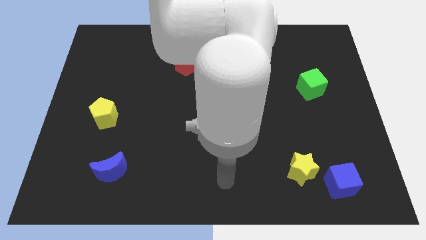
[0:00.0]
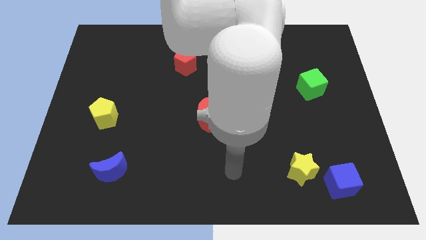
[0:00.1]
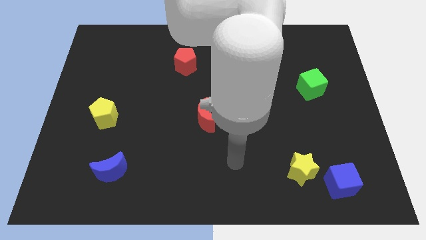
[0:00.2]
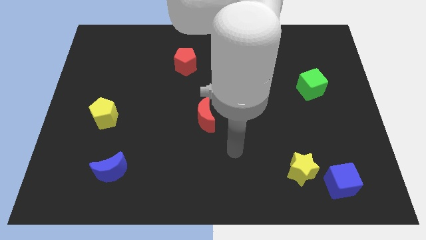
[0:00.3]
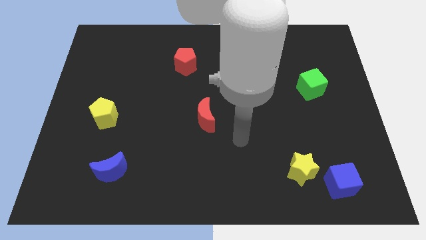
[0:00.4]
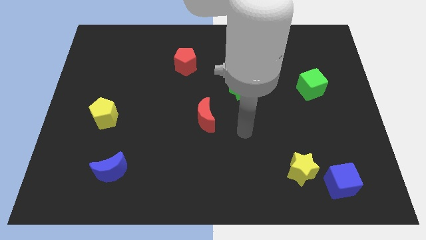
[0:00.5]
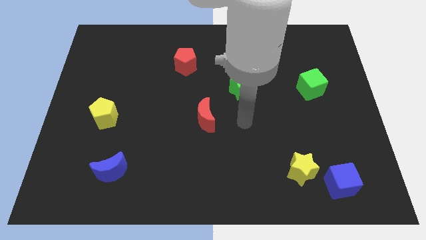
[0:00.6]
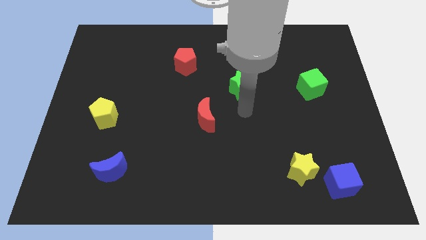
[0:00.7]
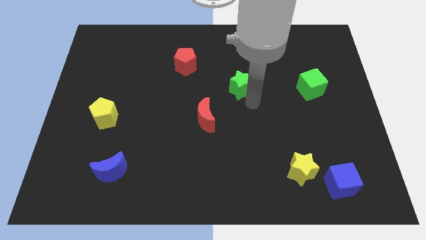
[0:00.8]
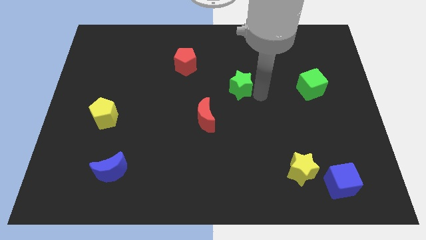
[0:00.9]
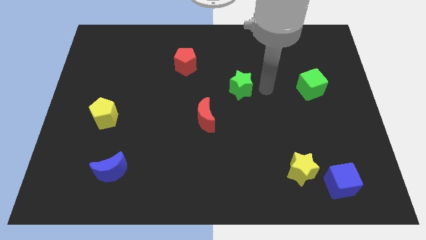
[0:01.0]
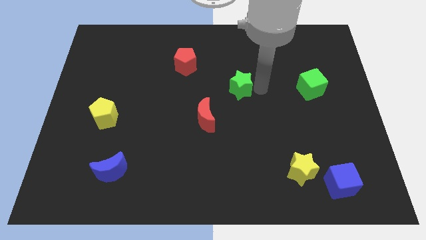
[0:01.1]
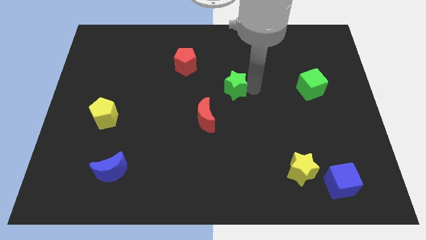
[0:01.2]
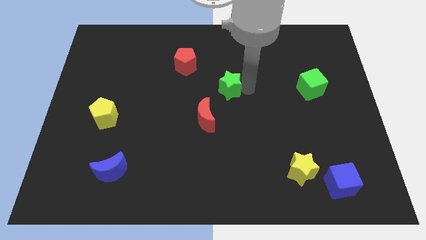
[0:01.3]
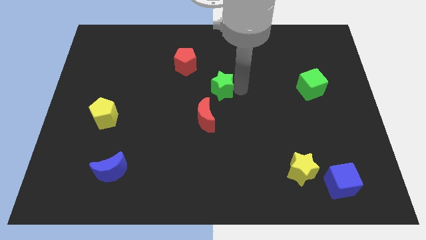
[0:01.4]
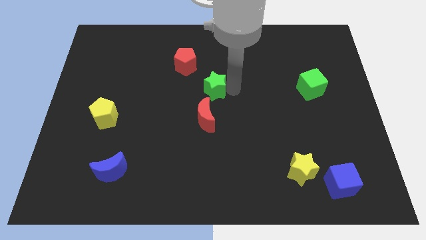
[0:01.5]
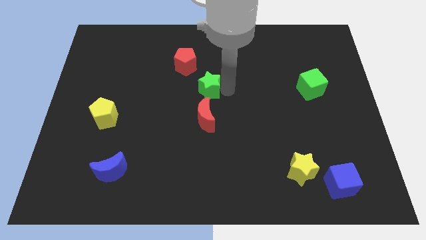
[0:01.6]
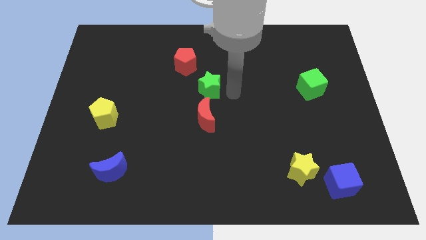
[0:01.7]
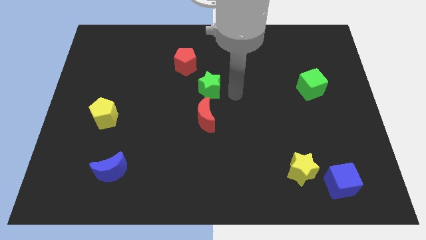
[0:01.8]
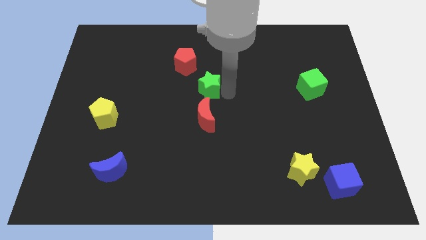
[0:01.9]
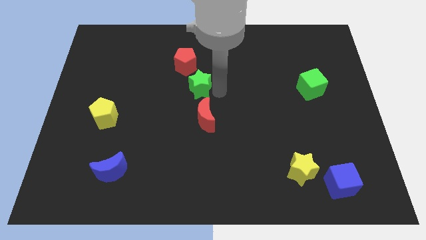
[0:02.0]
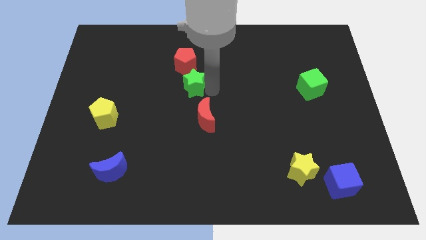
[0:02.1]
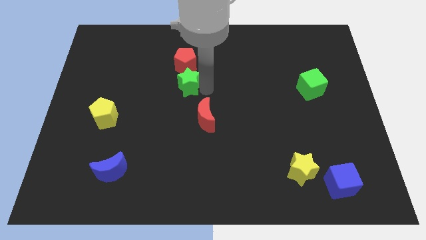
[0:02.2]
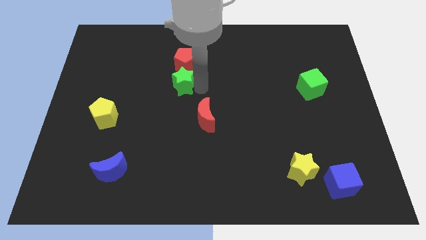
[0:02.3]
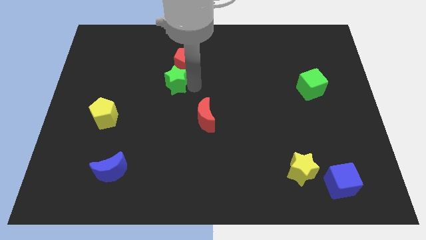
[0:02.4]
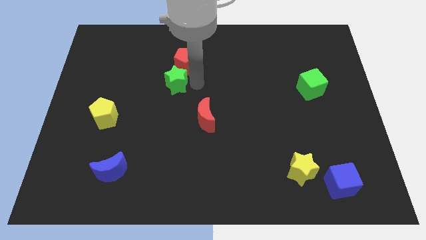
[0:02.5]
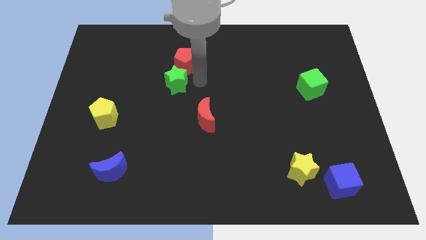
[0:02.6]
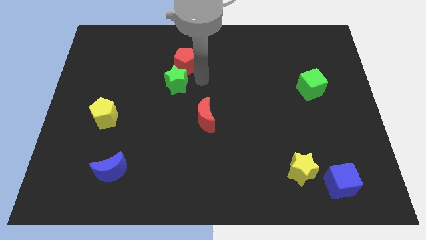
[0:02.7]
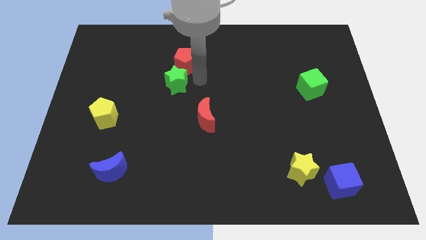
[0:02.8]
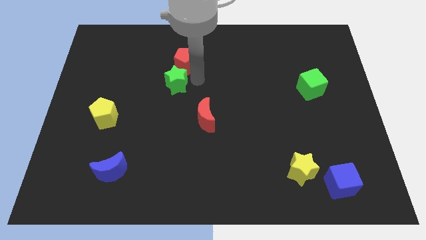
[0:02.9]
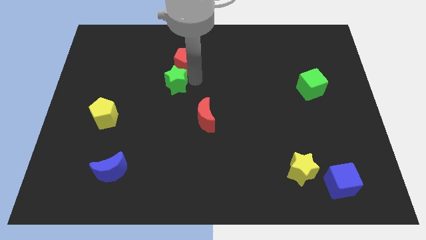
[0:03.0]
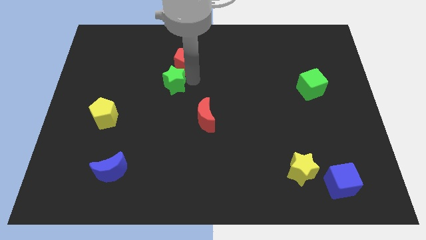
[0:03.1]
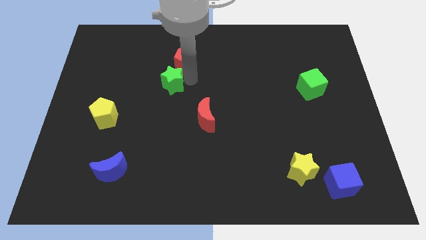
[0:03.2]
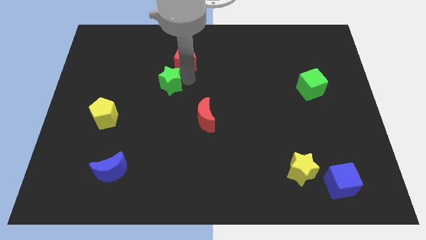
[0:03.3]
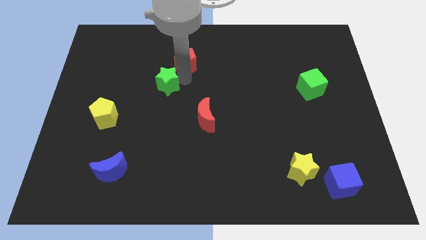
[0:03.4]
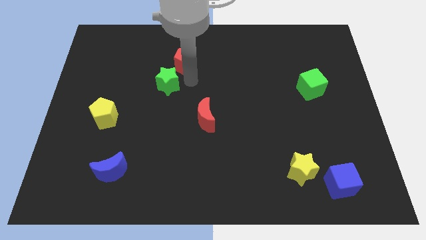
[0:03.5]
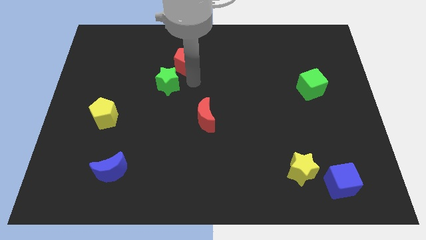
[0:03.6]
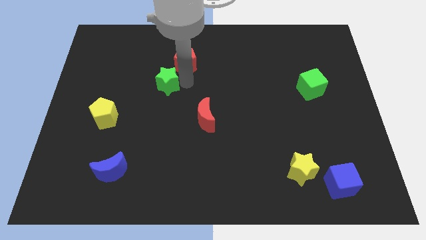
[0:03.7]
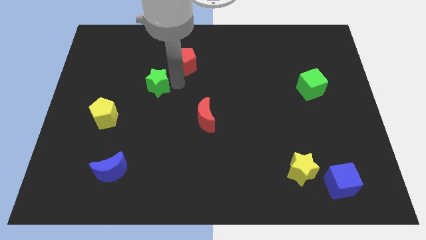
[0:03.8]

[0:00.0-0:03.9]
slide the green star to the left

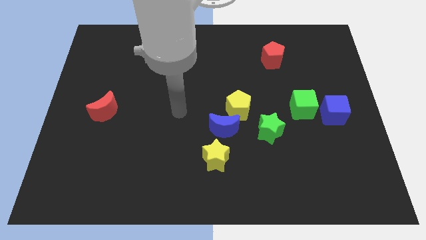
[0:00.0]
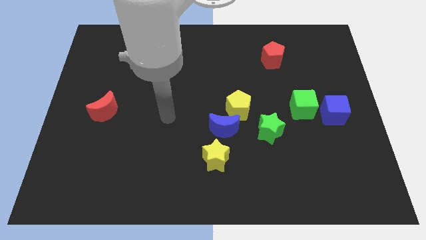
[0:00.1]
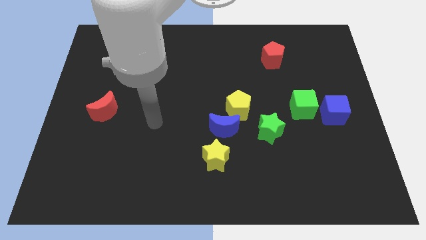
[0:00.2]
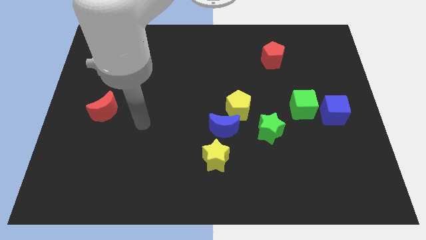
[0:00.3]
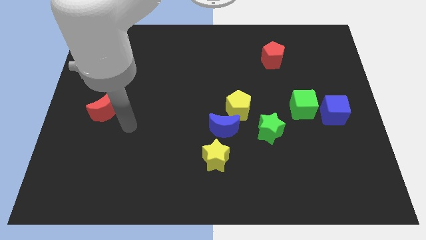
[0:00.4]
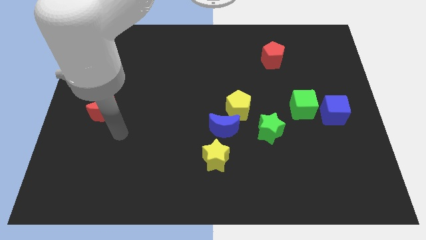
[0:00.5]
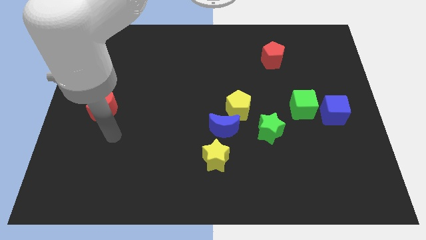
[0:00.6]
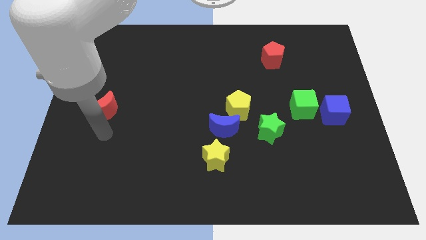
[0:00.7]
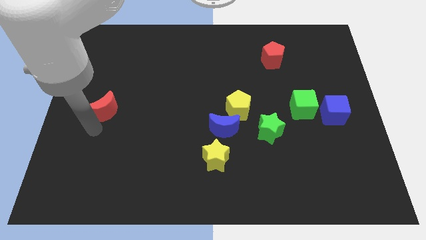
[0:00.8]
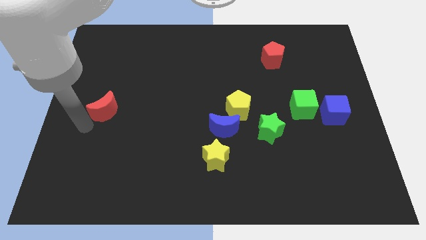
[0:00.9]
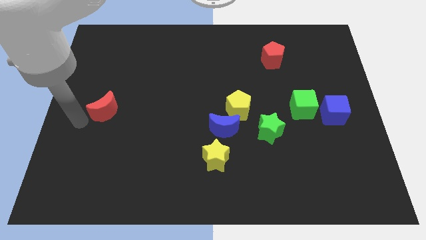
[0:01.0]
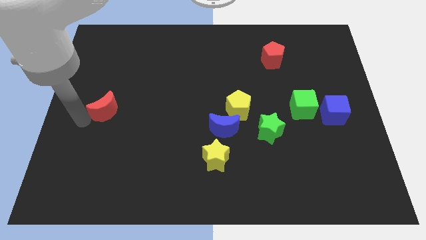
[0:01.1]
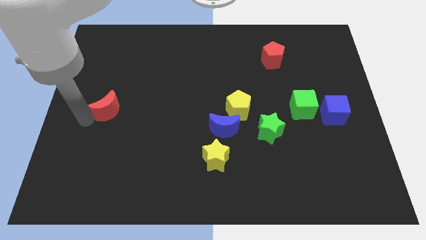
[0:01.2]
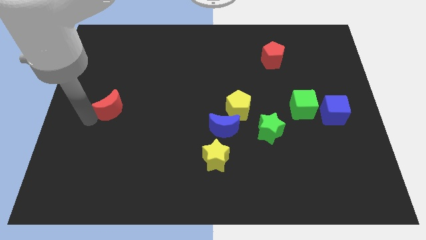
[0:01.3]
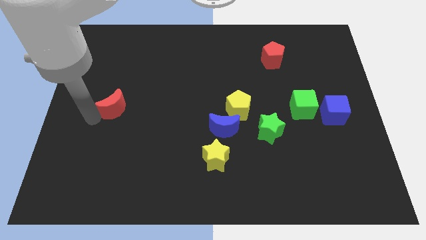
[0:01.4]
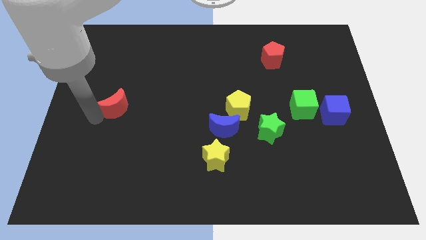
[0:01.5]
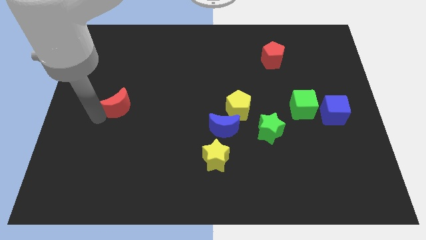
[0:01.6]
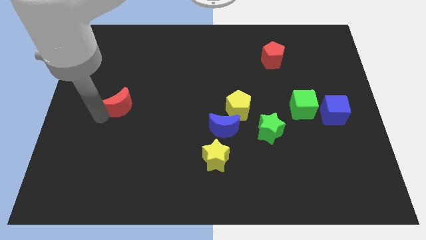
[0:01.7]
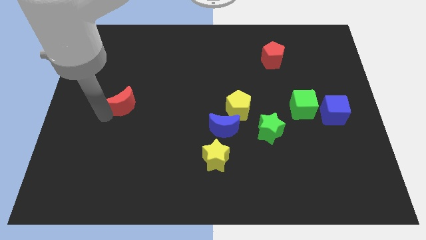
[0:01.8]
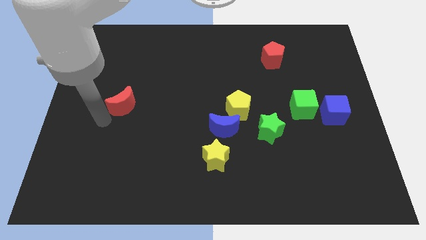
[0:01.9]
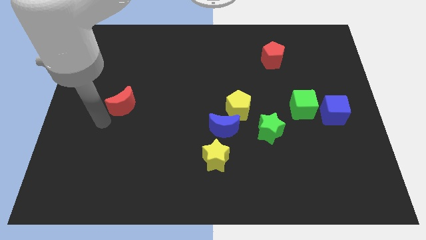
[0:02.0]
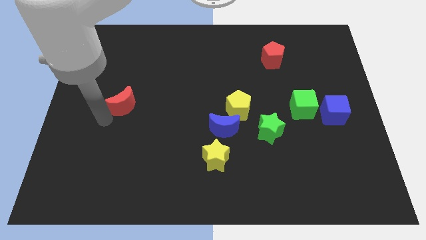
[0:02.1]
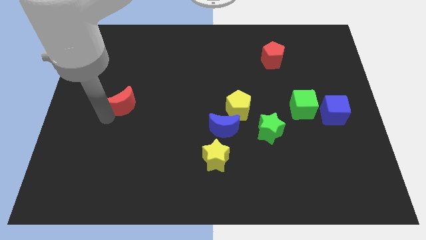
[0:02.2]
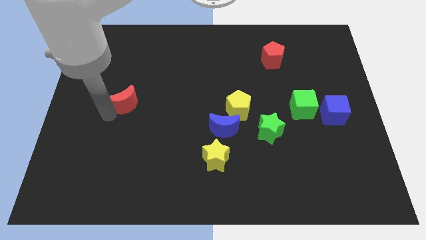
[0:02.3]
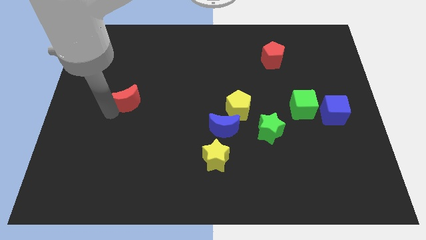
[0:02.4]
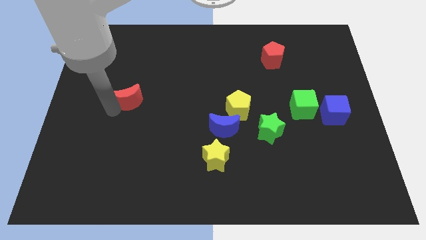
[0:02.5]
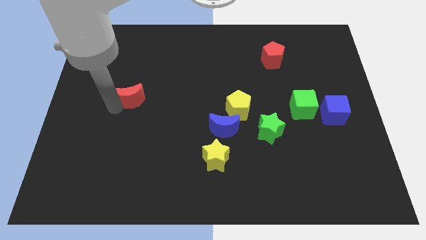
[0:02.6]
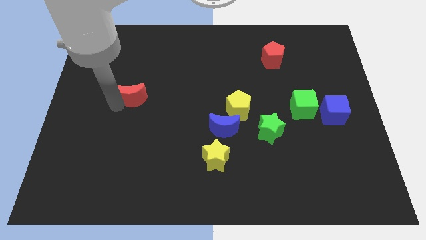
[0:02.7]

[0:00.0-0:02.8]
slide the red moon a bit diagonally up and to the right

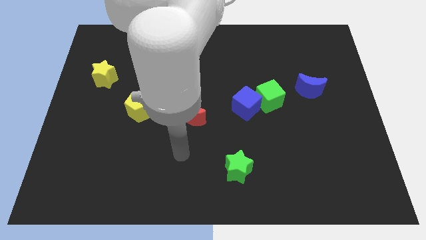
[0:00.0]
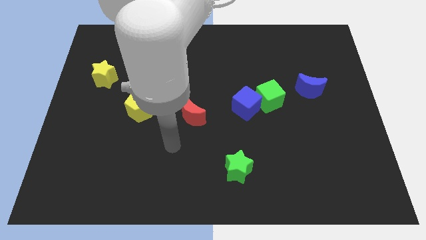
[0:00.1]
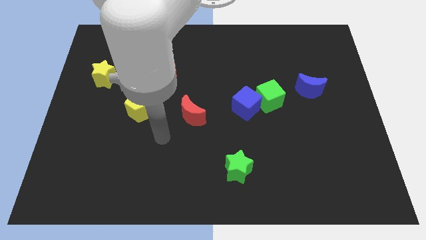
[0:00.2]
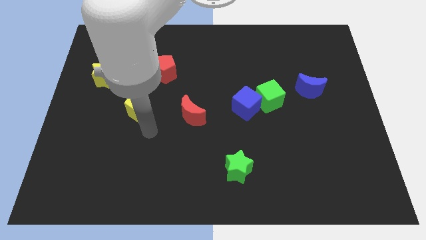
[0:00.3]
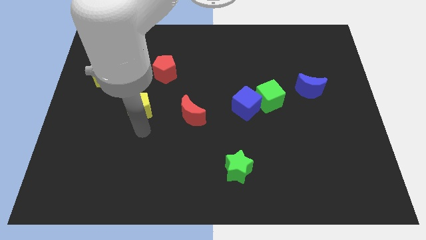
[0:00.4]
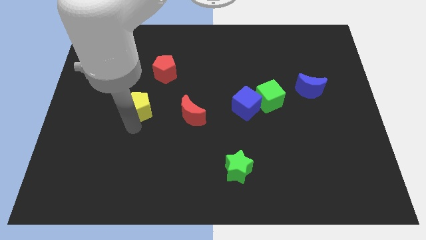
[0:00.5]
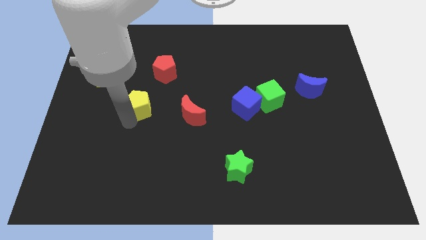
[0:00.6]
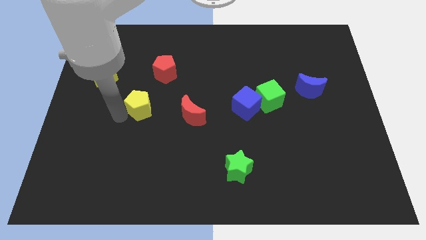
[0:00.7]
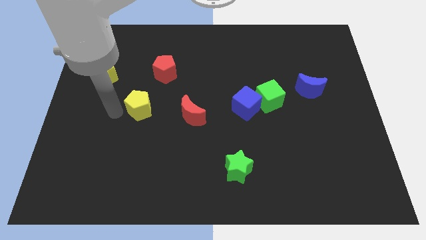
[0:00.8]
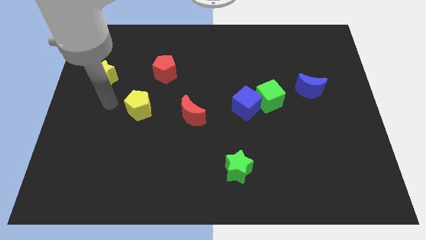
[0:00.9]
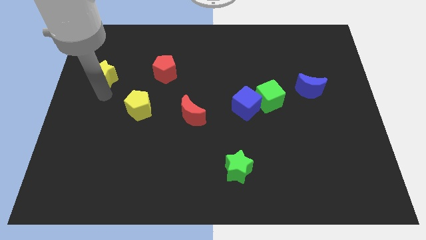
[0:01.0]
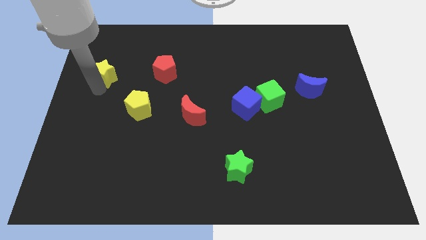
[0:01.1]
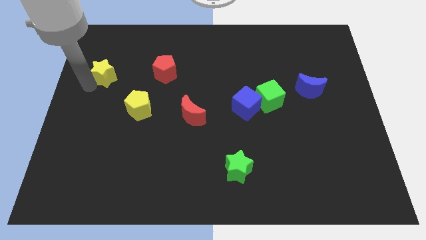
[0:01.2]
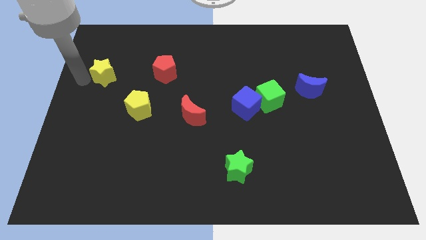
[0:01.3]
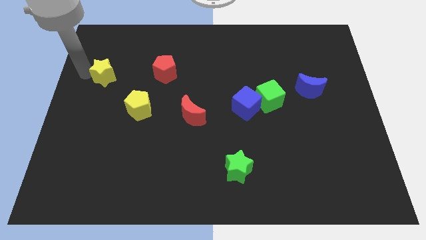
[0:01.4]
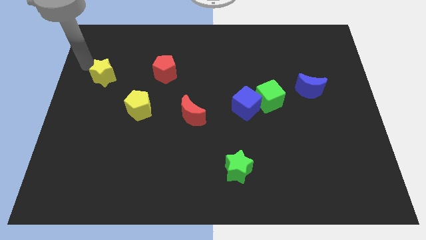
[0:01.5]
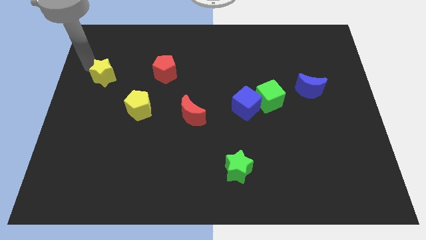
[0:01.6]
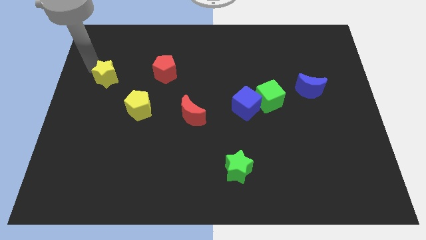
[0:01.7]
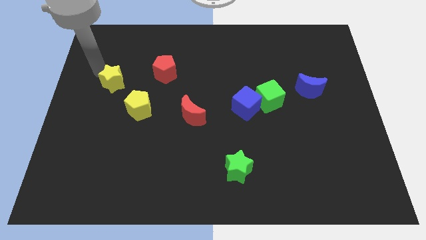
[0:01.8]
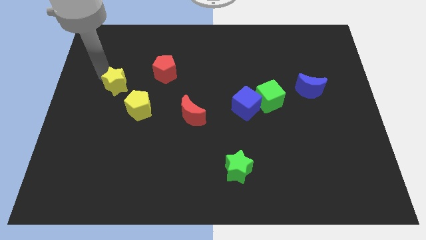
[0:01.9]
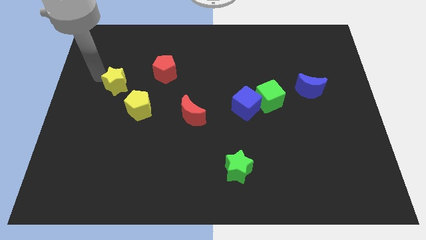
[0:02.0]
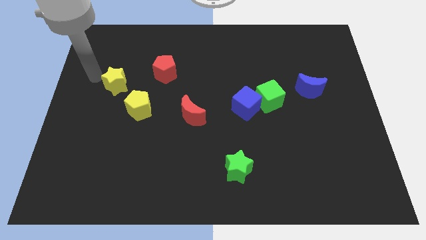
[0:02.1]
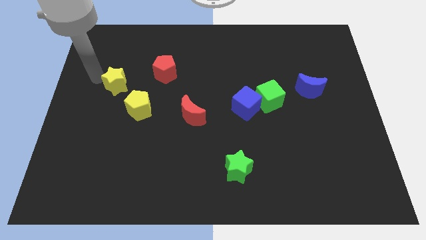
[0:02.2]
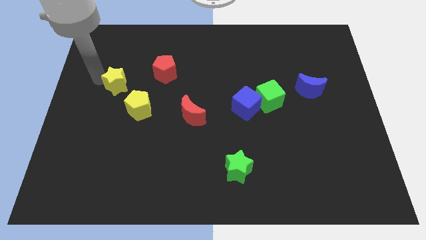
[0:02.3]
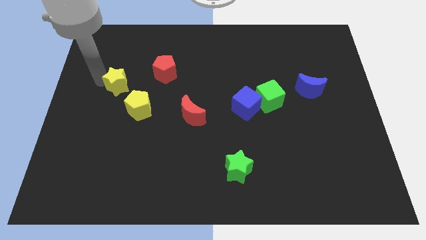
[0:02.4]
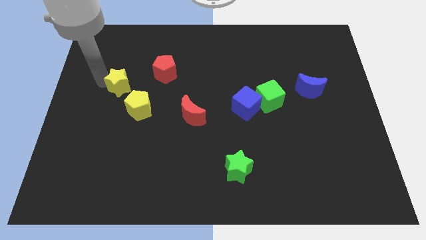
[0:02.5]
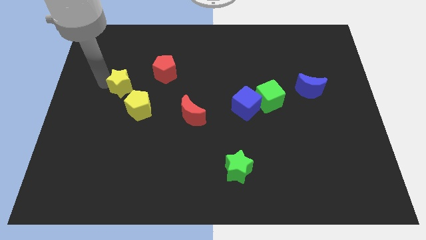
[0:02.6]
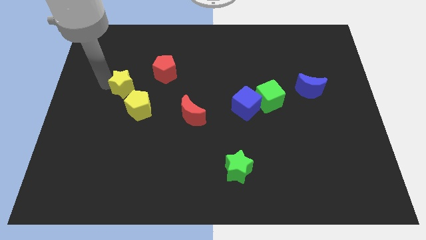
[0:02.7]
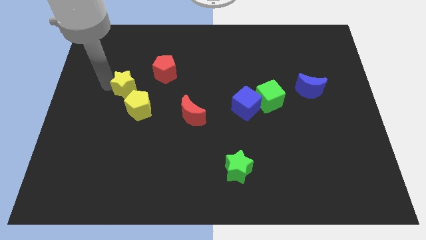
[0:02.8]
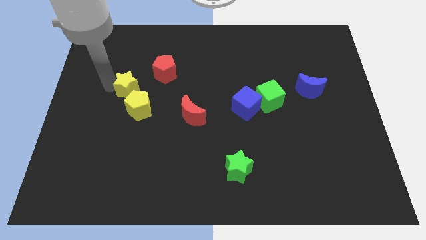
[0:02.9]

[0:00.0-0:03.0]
slightly push the yellow star diagonally downwards and right
